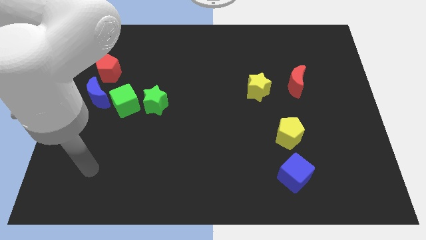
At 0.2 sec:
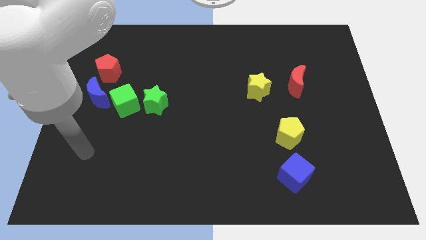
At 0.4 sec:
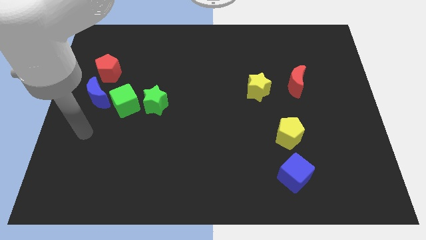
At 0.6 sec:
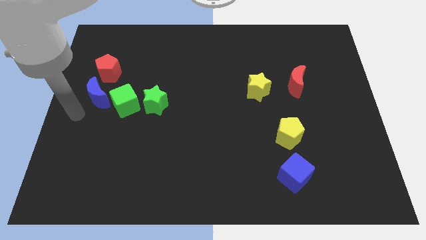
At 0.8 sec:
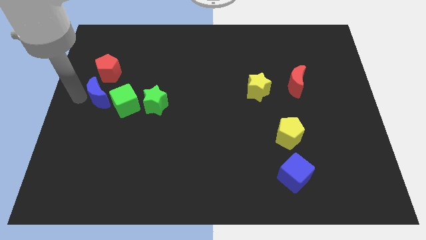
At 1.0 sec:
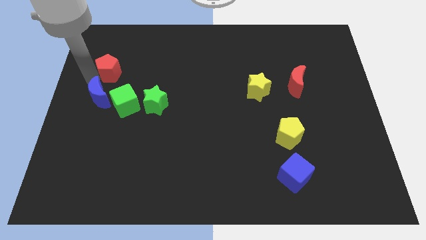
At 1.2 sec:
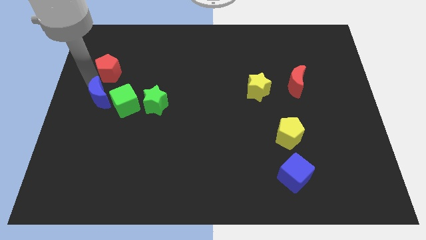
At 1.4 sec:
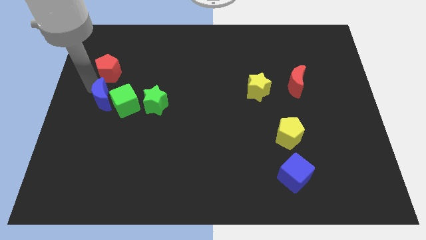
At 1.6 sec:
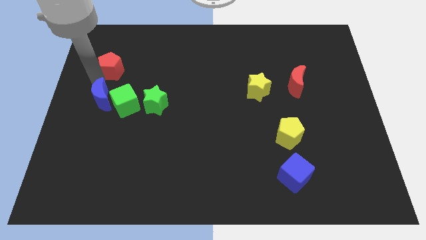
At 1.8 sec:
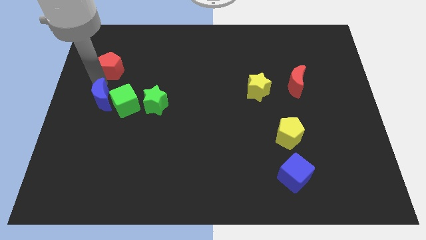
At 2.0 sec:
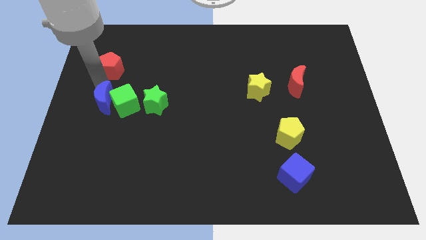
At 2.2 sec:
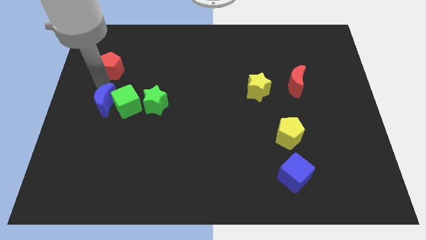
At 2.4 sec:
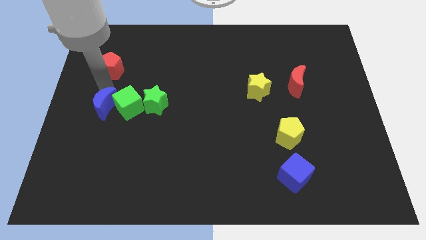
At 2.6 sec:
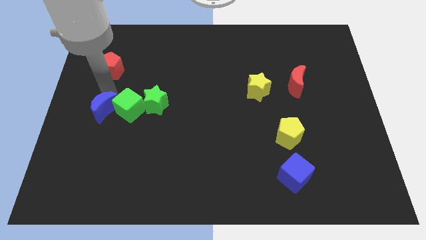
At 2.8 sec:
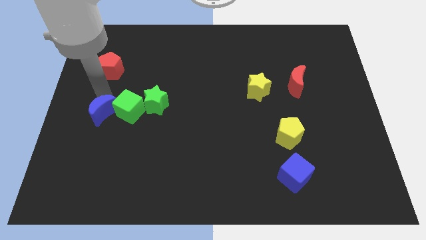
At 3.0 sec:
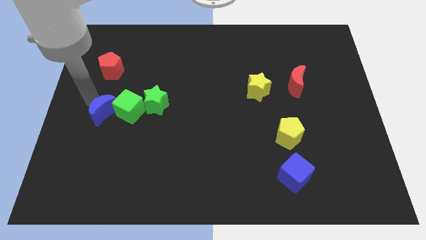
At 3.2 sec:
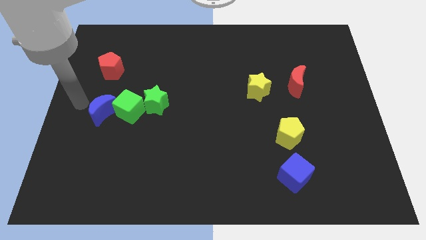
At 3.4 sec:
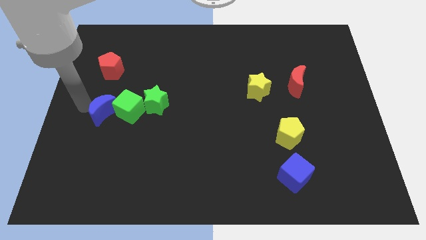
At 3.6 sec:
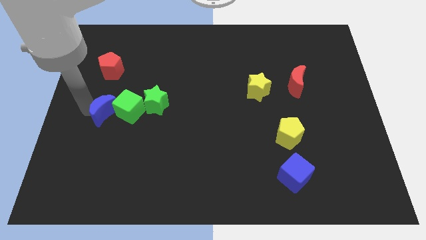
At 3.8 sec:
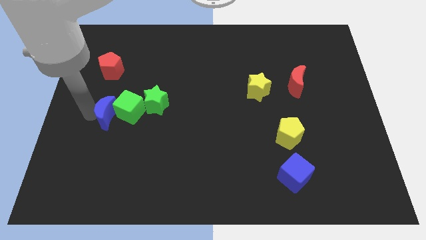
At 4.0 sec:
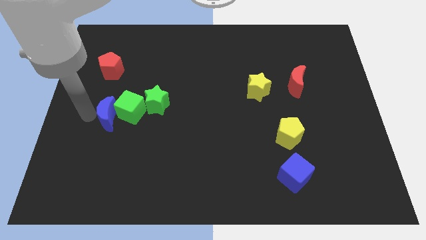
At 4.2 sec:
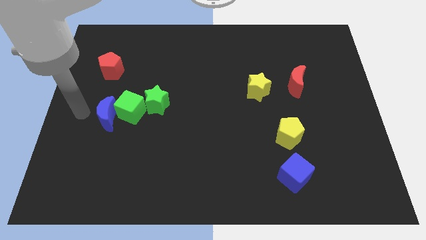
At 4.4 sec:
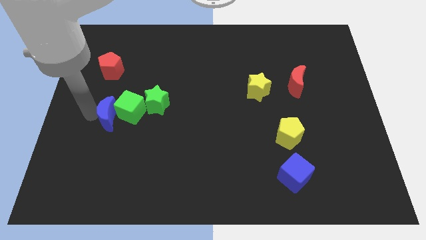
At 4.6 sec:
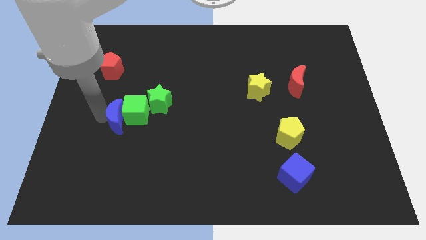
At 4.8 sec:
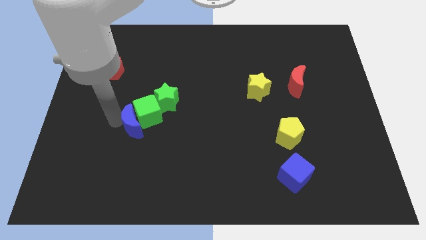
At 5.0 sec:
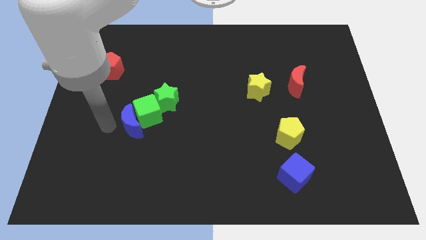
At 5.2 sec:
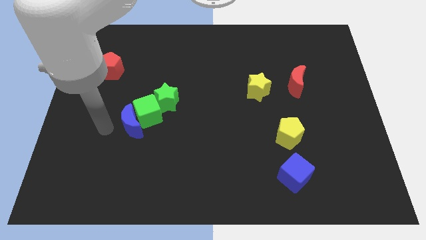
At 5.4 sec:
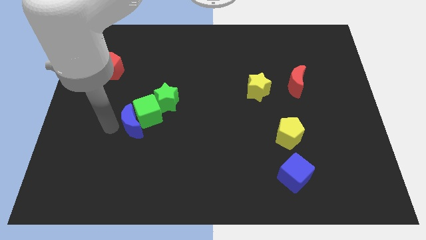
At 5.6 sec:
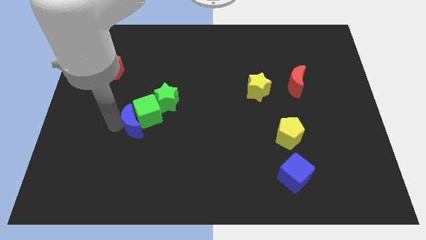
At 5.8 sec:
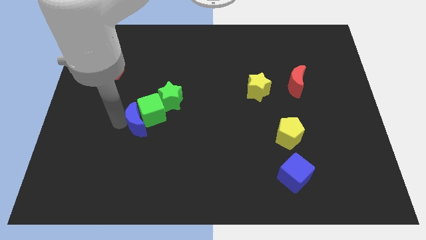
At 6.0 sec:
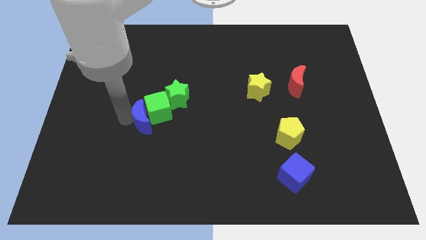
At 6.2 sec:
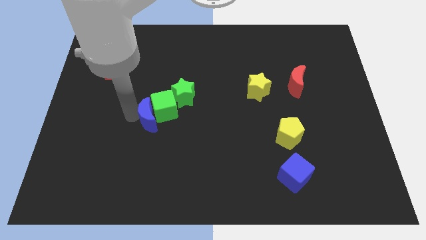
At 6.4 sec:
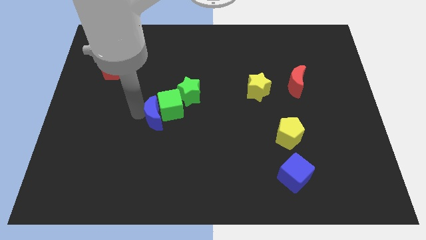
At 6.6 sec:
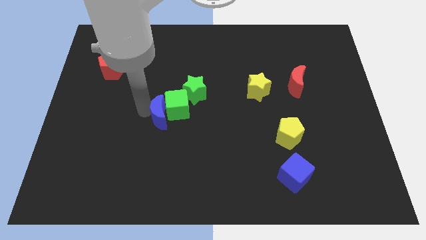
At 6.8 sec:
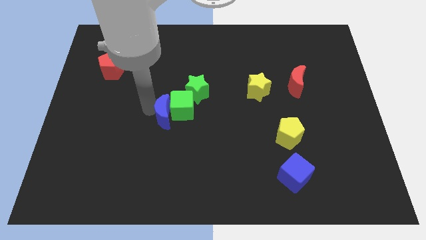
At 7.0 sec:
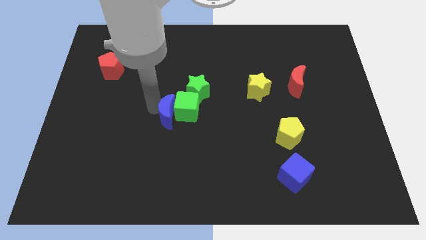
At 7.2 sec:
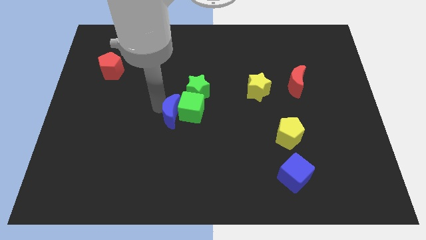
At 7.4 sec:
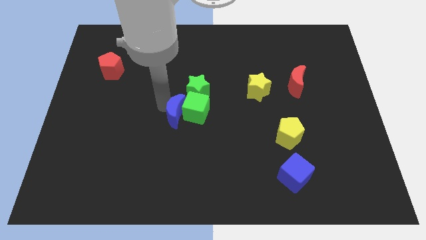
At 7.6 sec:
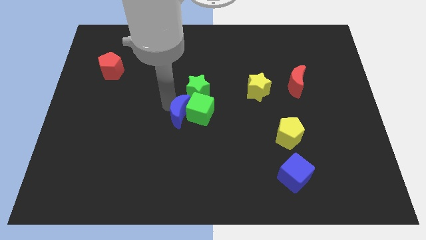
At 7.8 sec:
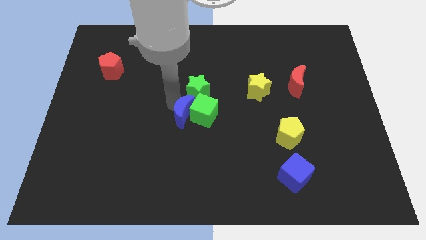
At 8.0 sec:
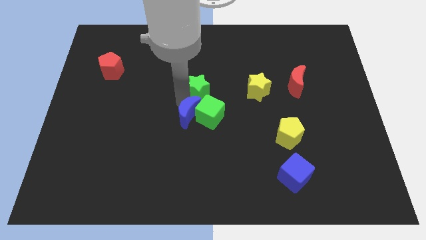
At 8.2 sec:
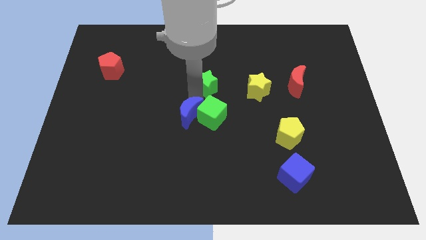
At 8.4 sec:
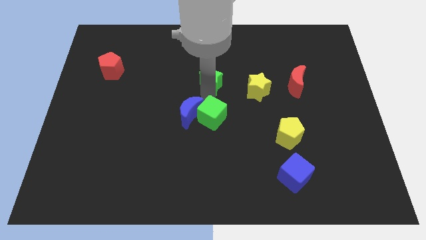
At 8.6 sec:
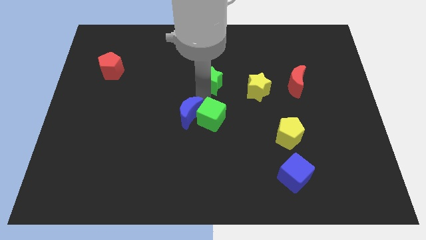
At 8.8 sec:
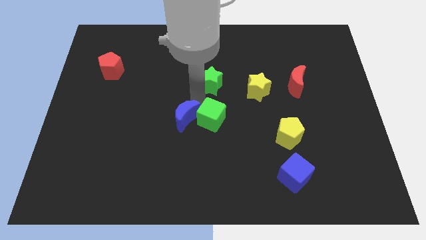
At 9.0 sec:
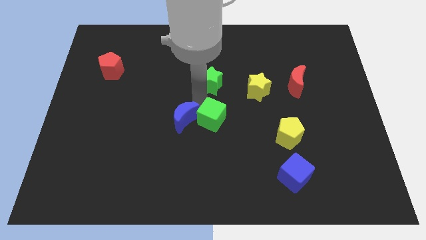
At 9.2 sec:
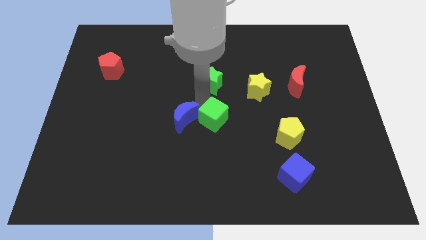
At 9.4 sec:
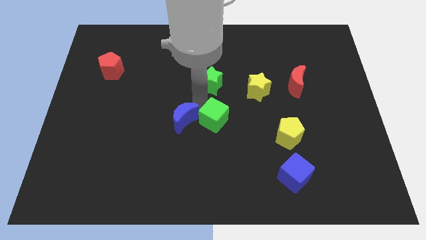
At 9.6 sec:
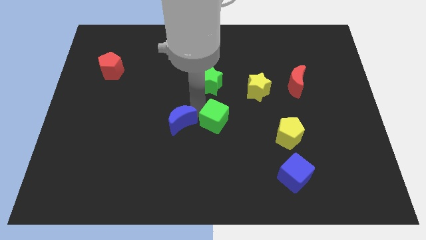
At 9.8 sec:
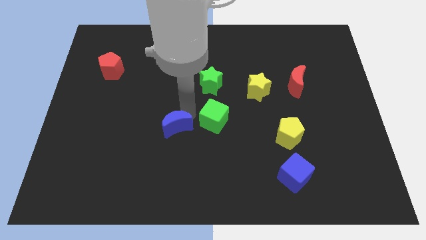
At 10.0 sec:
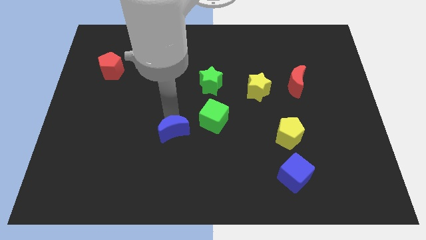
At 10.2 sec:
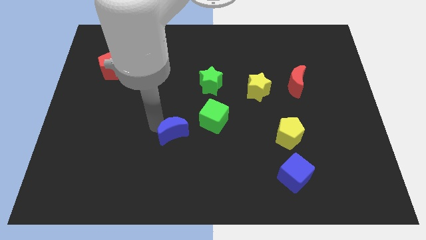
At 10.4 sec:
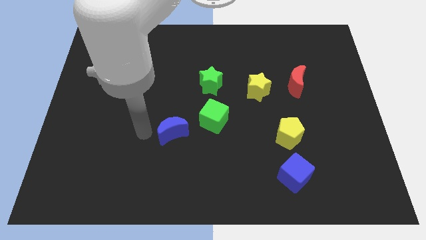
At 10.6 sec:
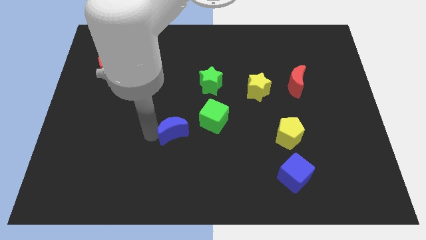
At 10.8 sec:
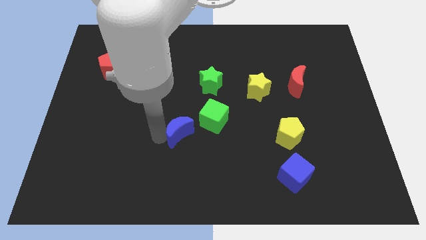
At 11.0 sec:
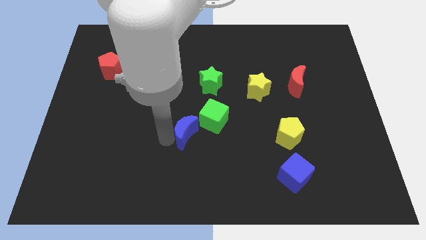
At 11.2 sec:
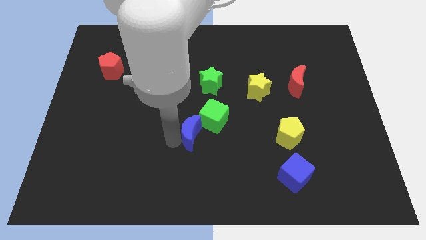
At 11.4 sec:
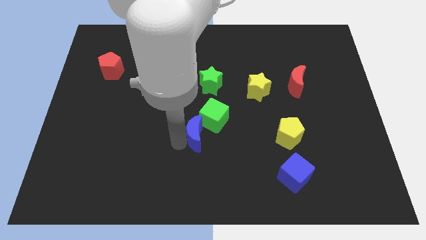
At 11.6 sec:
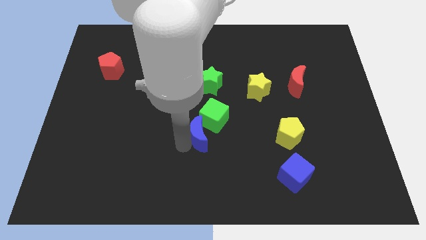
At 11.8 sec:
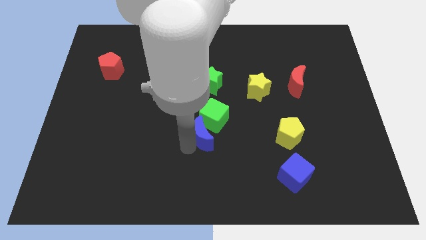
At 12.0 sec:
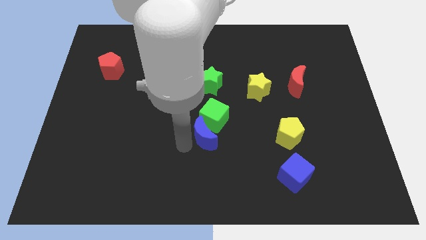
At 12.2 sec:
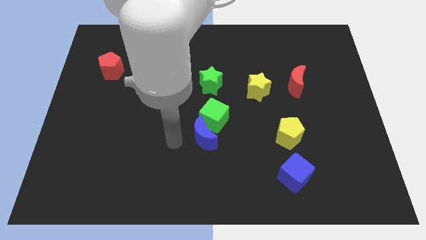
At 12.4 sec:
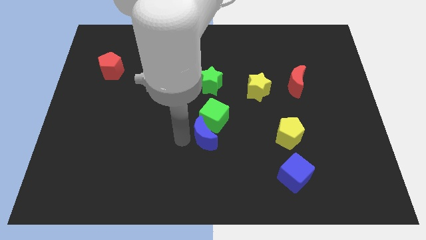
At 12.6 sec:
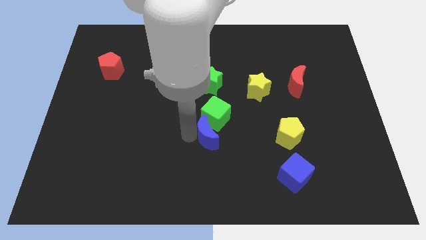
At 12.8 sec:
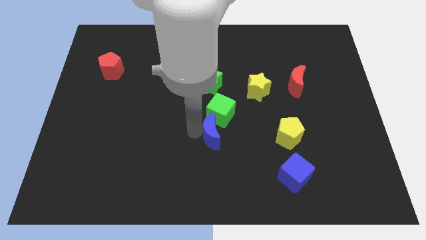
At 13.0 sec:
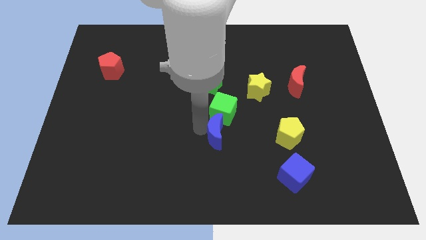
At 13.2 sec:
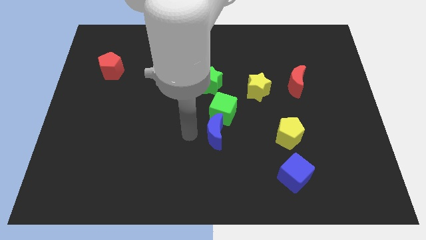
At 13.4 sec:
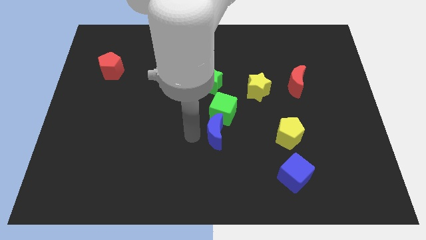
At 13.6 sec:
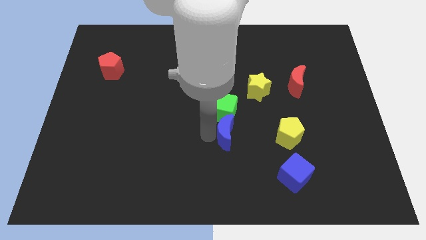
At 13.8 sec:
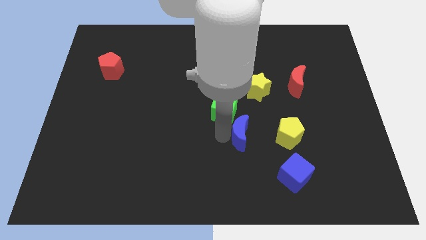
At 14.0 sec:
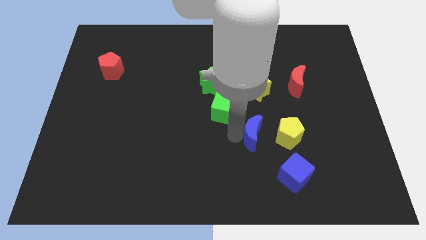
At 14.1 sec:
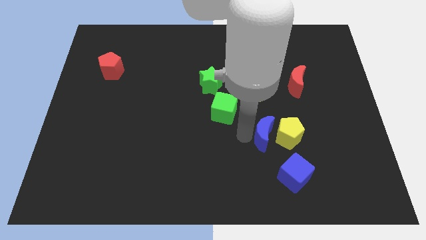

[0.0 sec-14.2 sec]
push the blue moon to the yellow pentagon

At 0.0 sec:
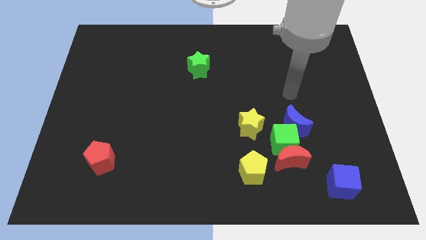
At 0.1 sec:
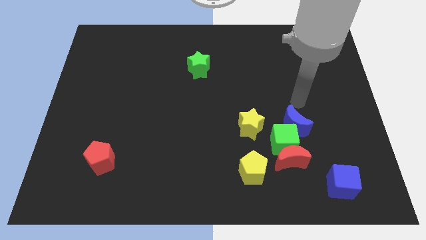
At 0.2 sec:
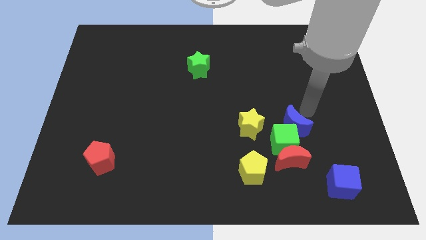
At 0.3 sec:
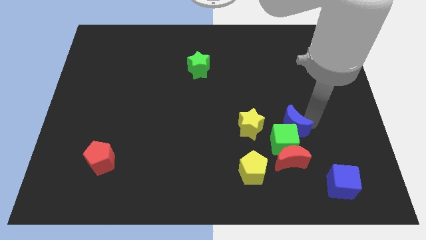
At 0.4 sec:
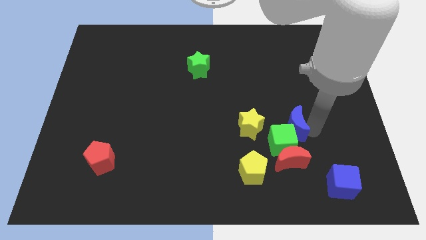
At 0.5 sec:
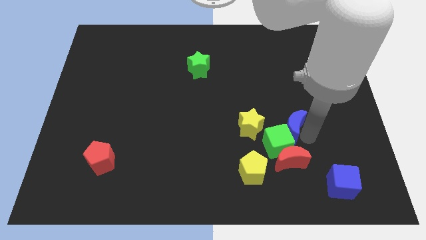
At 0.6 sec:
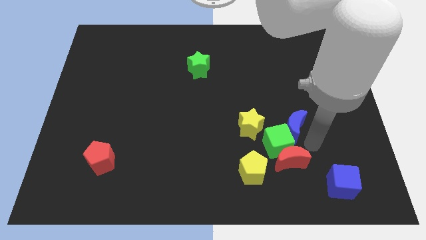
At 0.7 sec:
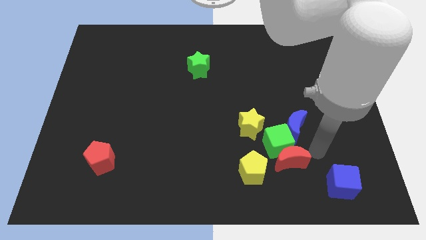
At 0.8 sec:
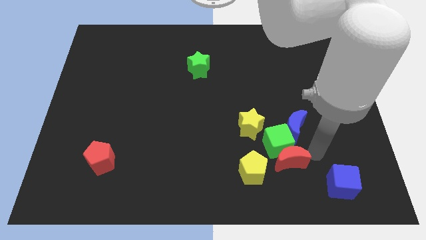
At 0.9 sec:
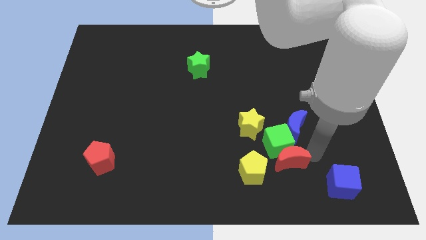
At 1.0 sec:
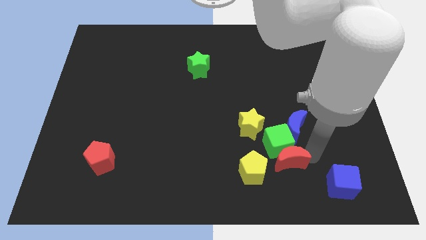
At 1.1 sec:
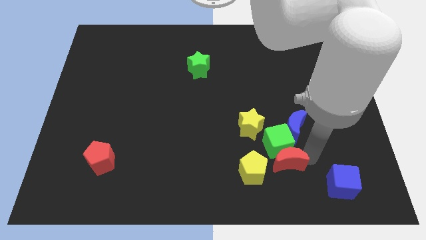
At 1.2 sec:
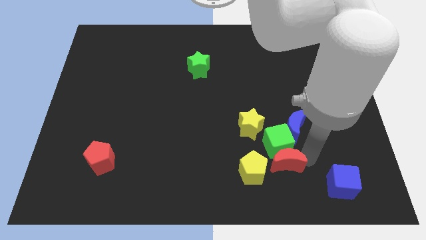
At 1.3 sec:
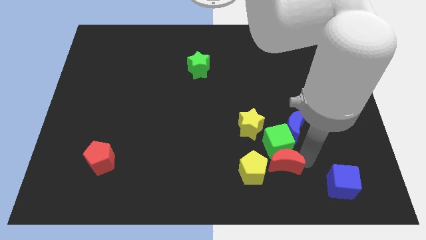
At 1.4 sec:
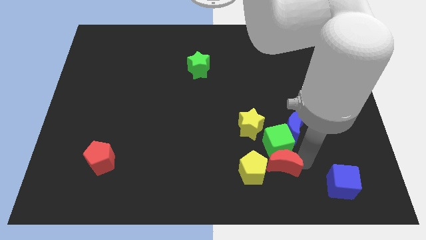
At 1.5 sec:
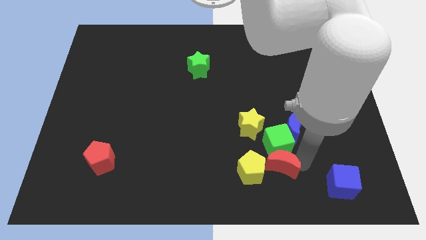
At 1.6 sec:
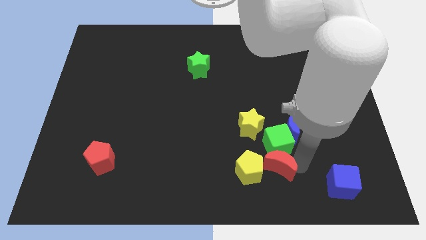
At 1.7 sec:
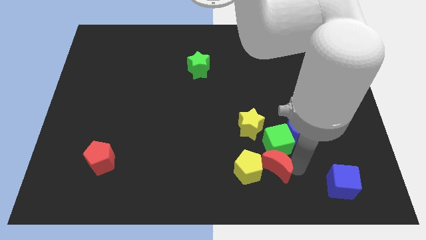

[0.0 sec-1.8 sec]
move the red moon next to the yellow pentagon
